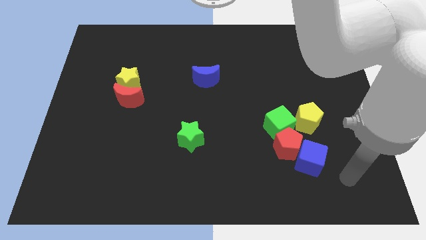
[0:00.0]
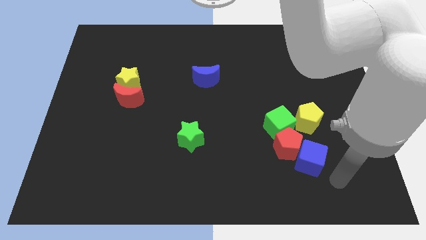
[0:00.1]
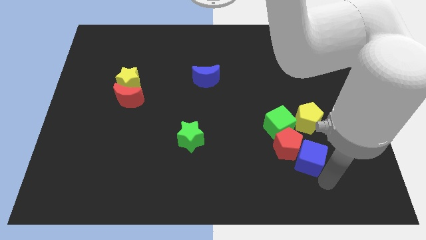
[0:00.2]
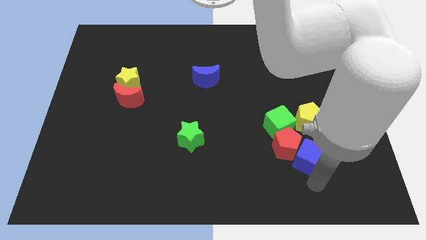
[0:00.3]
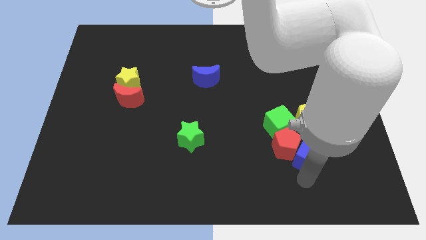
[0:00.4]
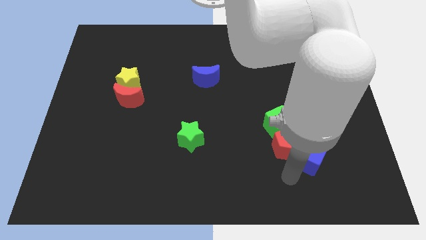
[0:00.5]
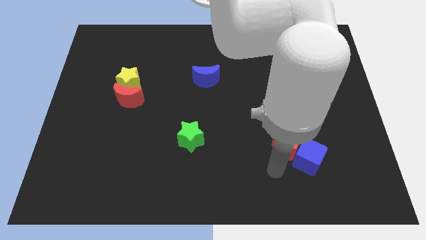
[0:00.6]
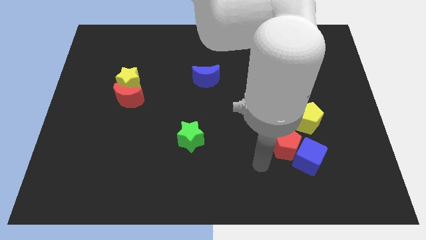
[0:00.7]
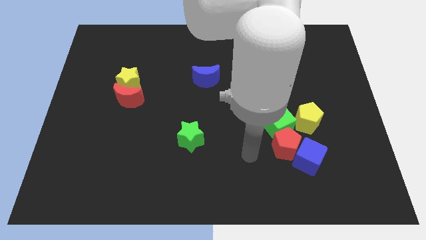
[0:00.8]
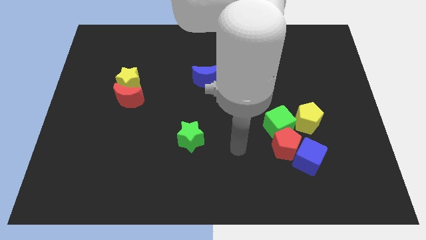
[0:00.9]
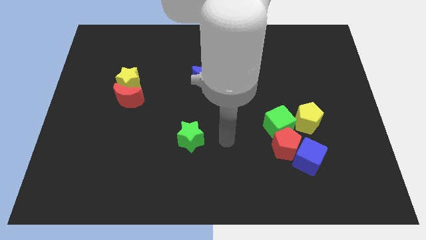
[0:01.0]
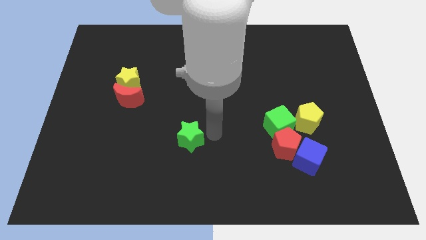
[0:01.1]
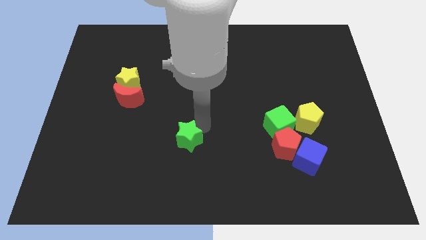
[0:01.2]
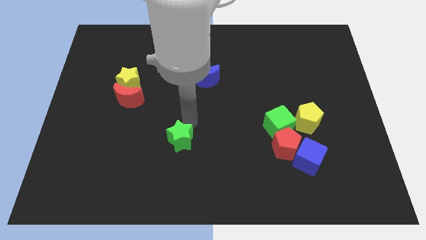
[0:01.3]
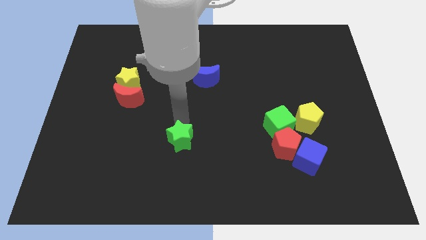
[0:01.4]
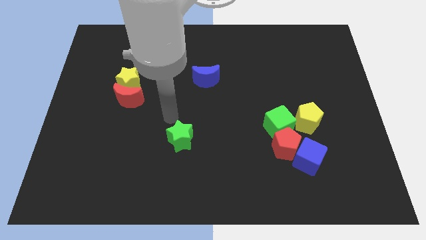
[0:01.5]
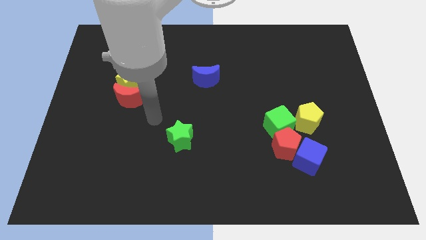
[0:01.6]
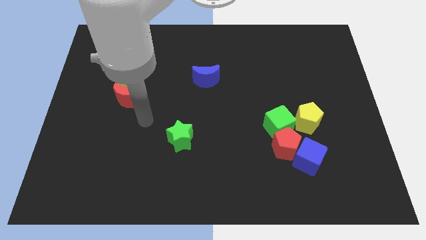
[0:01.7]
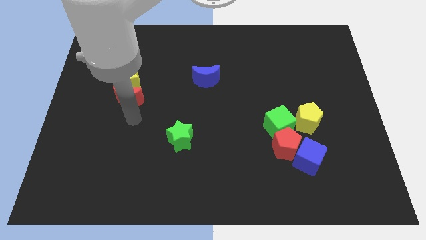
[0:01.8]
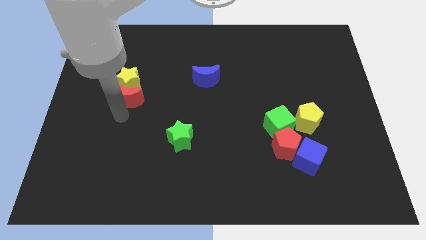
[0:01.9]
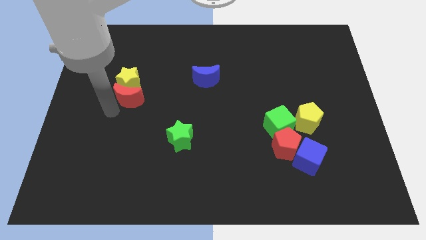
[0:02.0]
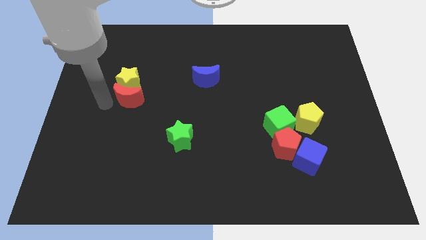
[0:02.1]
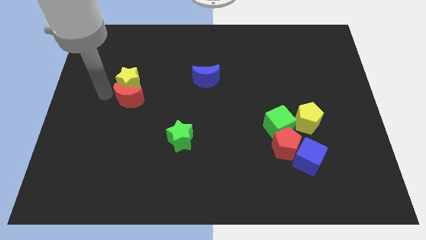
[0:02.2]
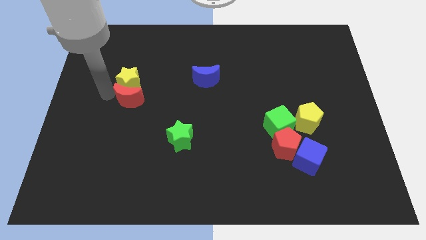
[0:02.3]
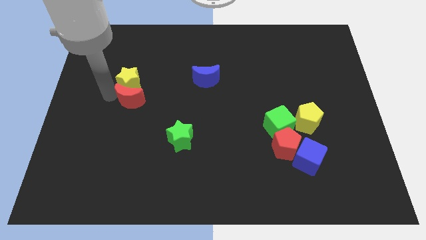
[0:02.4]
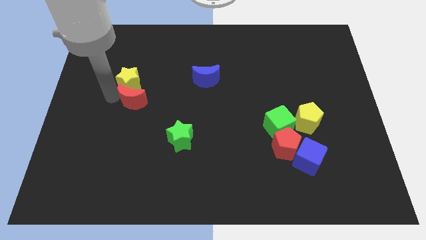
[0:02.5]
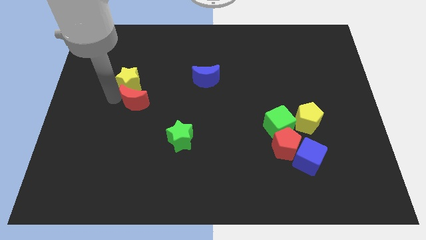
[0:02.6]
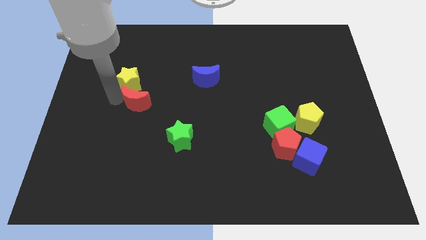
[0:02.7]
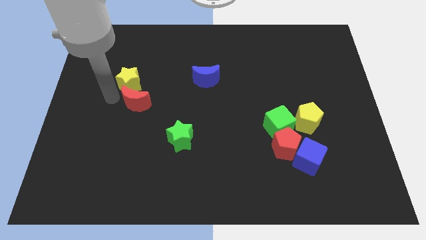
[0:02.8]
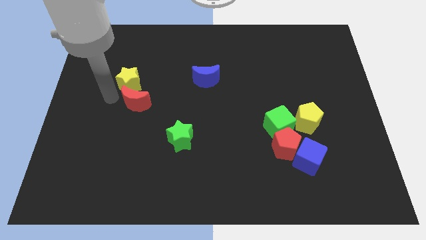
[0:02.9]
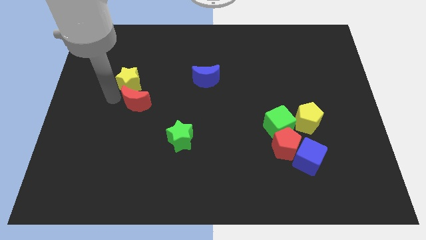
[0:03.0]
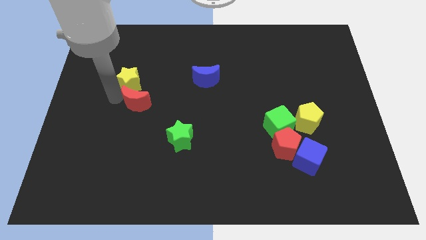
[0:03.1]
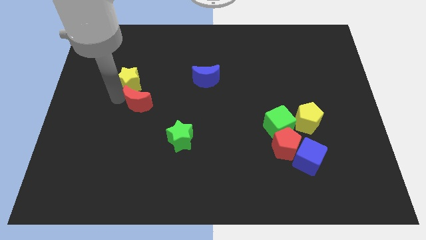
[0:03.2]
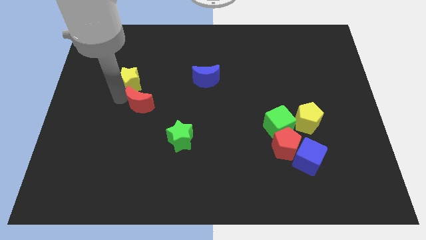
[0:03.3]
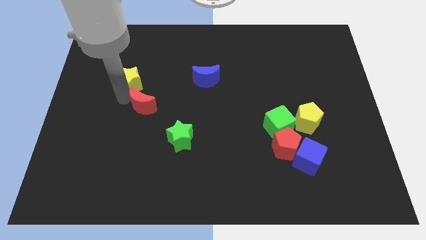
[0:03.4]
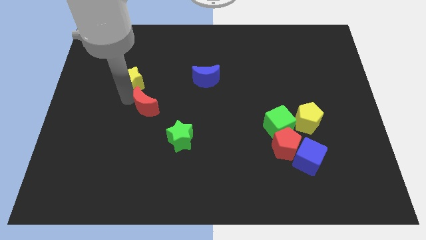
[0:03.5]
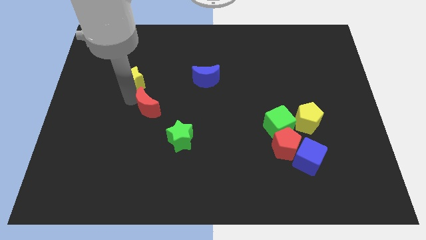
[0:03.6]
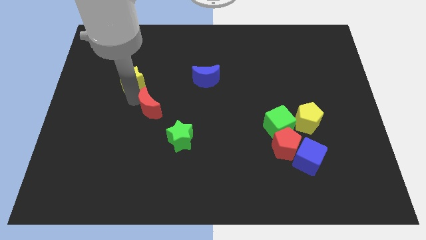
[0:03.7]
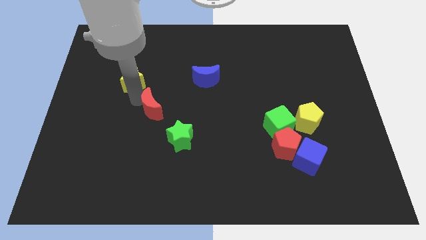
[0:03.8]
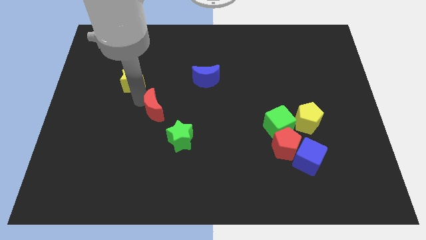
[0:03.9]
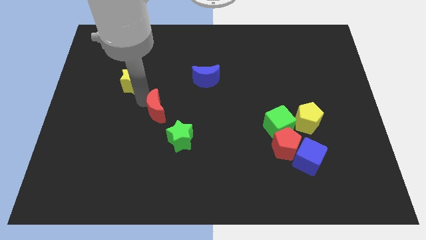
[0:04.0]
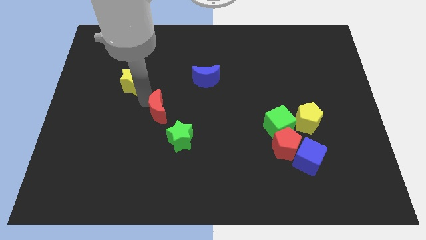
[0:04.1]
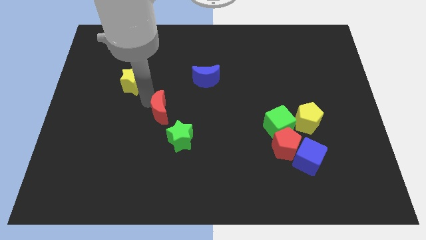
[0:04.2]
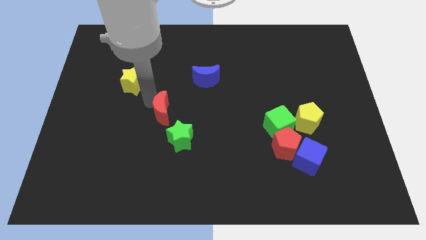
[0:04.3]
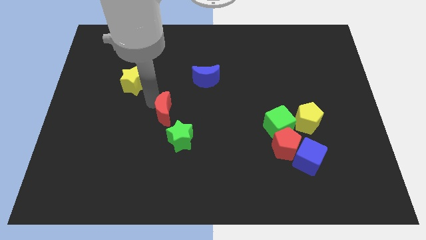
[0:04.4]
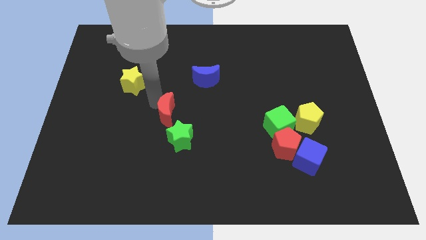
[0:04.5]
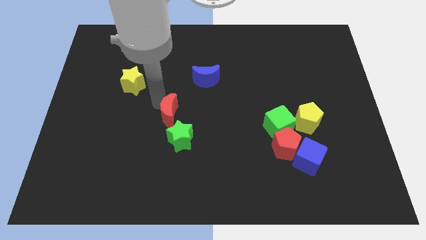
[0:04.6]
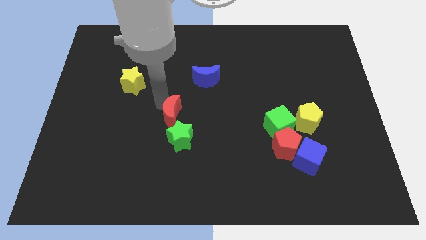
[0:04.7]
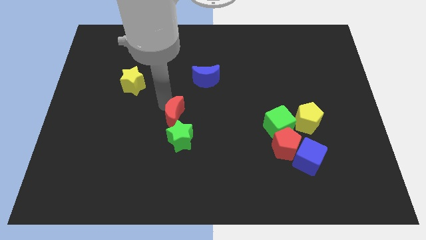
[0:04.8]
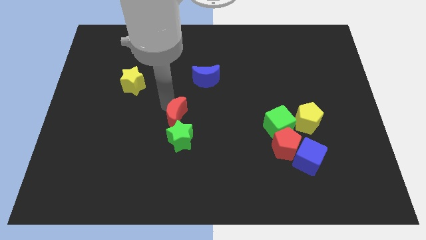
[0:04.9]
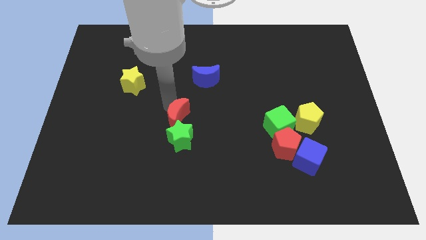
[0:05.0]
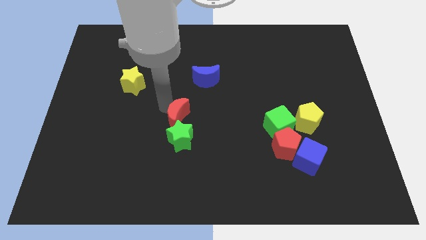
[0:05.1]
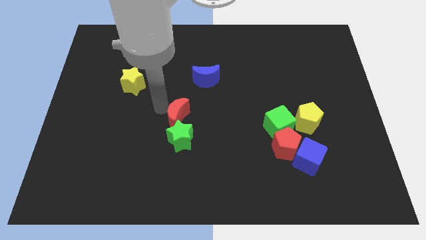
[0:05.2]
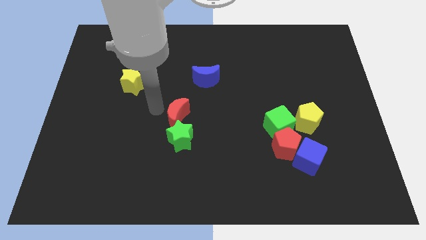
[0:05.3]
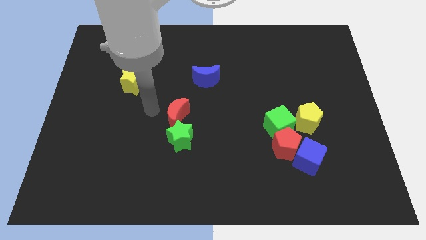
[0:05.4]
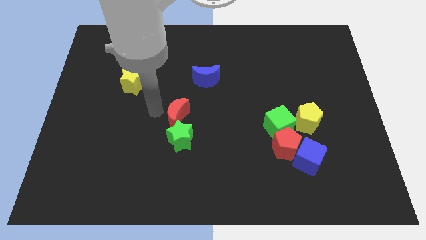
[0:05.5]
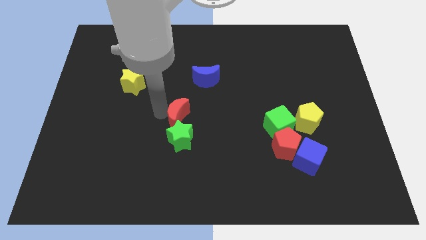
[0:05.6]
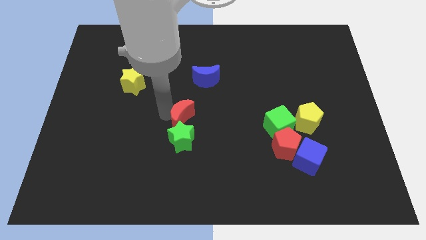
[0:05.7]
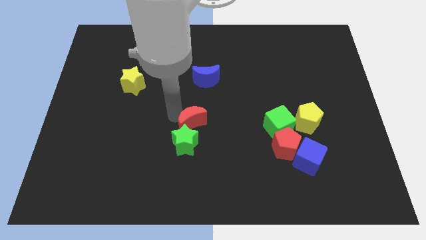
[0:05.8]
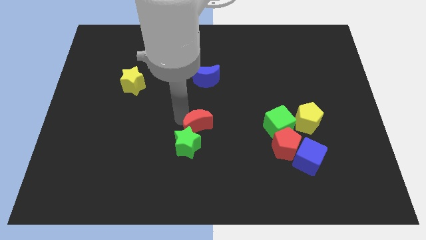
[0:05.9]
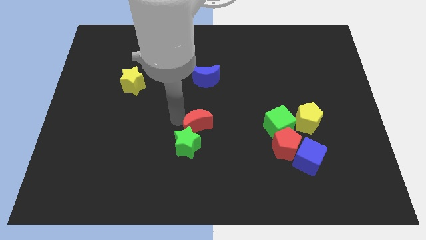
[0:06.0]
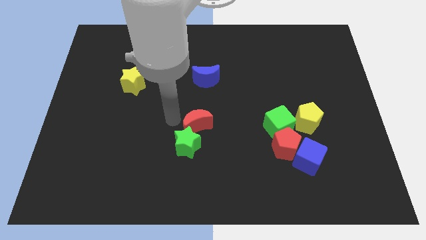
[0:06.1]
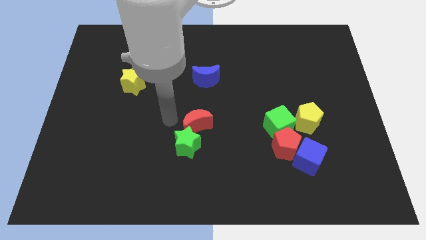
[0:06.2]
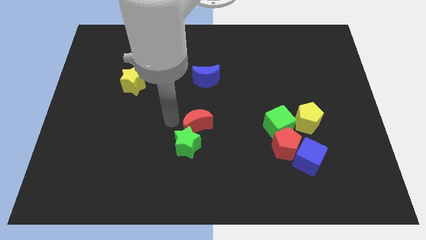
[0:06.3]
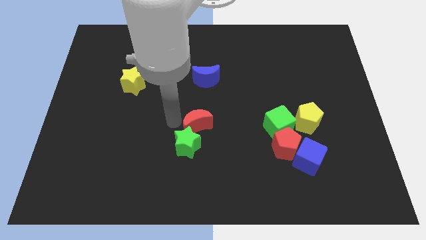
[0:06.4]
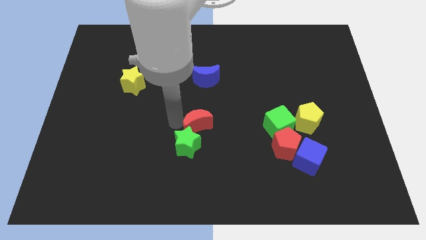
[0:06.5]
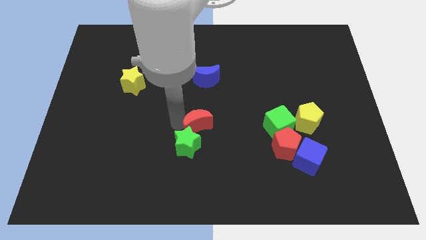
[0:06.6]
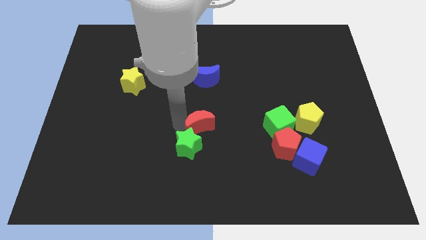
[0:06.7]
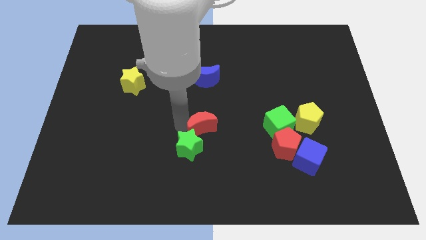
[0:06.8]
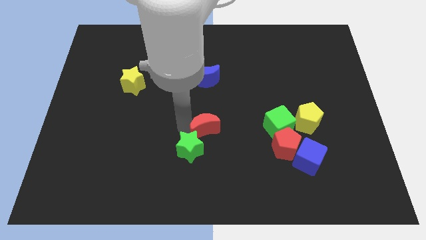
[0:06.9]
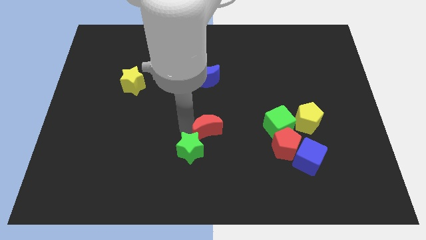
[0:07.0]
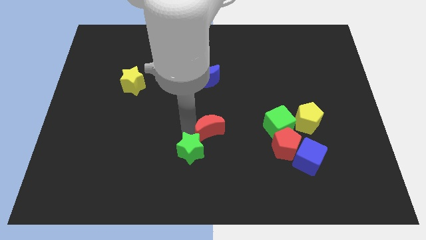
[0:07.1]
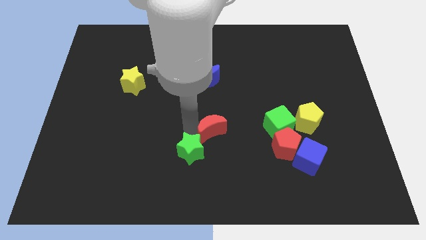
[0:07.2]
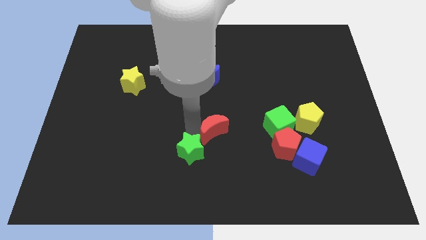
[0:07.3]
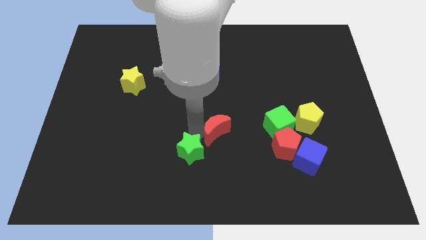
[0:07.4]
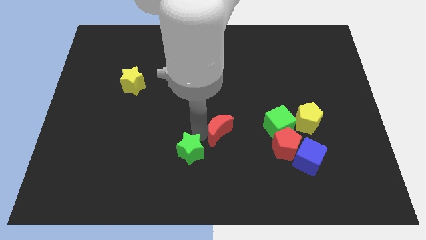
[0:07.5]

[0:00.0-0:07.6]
put the red moon left of the red pentagon

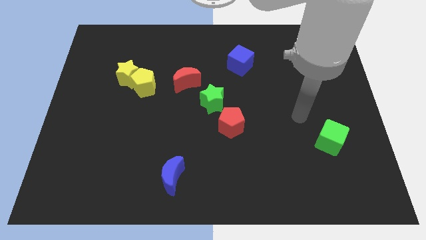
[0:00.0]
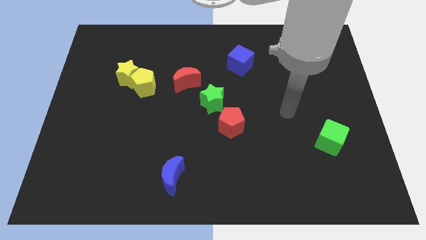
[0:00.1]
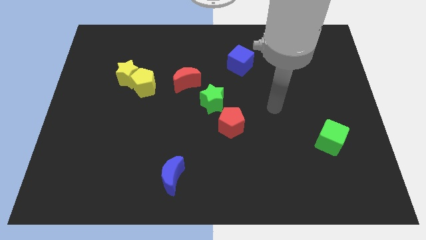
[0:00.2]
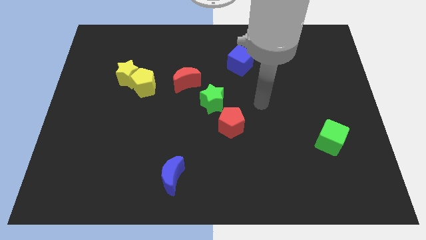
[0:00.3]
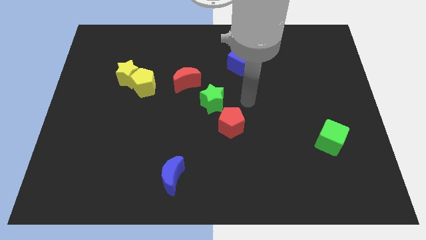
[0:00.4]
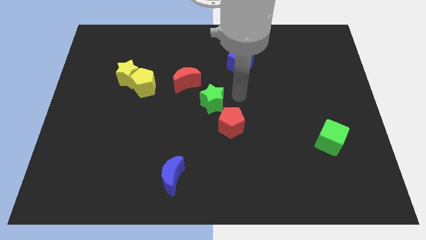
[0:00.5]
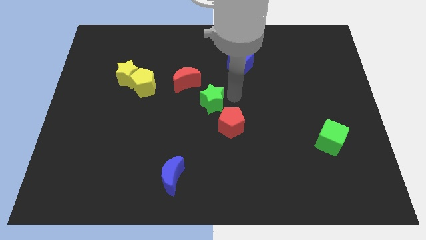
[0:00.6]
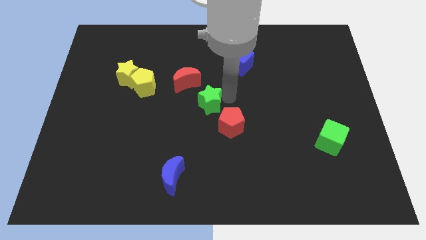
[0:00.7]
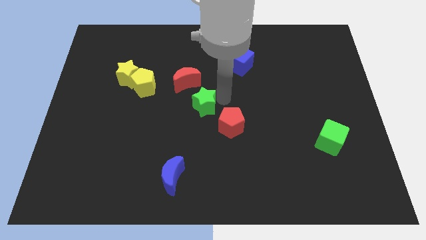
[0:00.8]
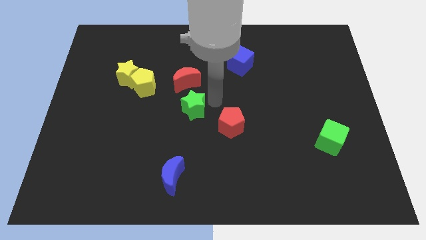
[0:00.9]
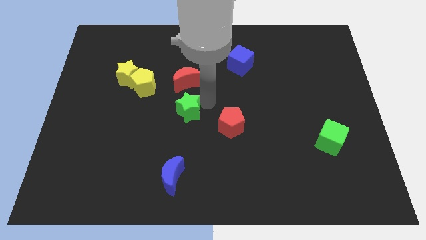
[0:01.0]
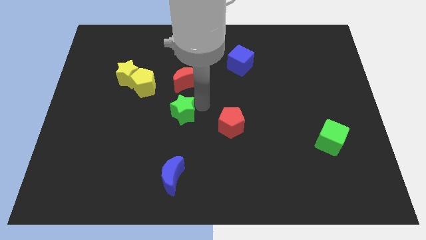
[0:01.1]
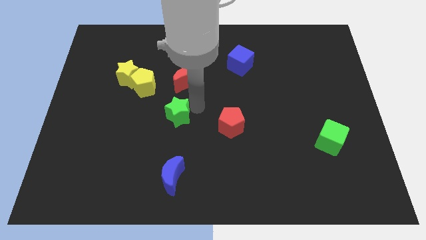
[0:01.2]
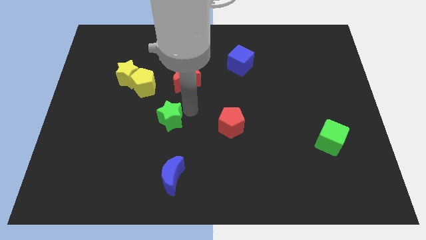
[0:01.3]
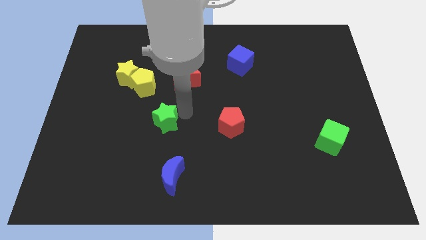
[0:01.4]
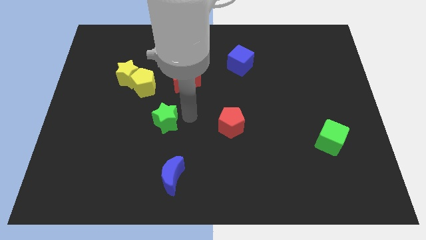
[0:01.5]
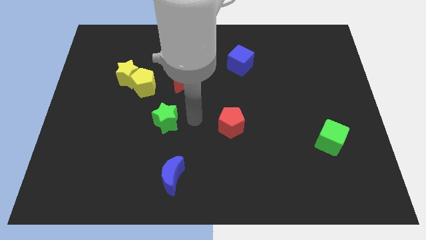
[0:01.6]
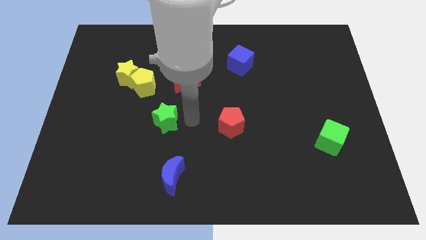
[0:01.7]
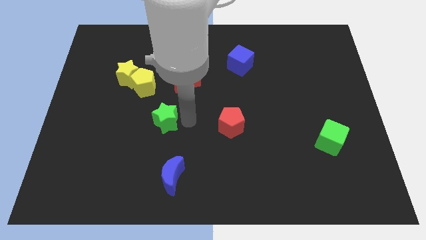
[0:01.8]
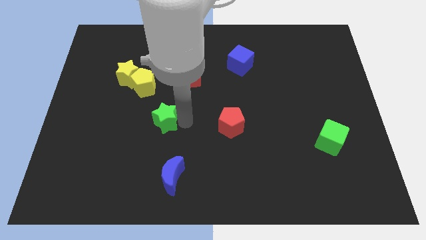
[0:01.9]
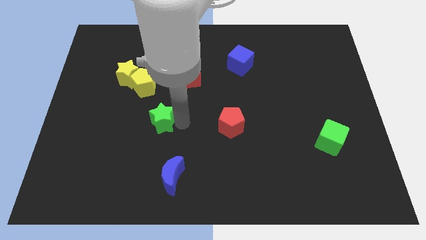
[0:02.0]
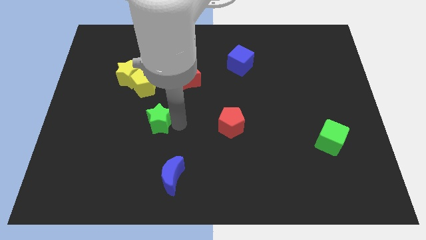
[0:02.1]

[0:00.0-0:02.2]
put the green star to the bottom side of the yellow pentagon
